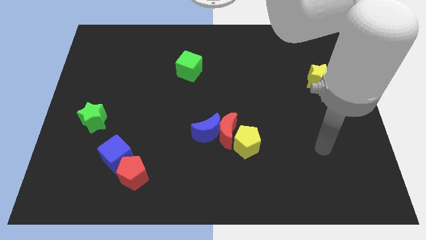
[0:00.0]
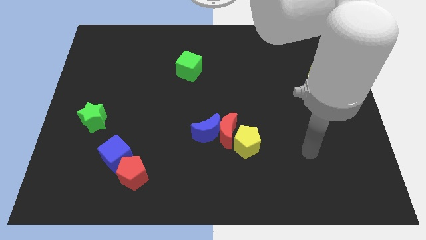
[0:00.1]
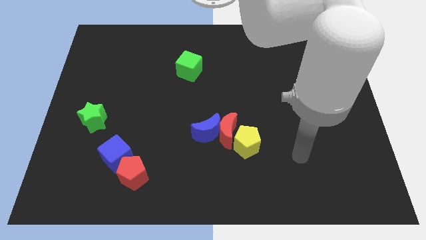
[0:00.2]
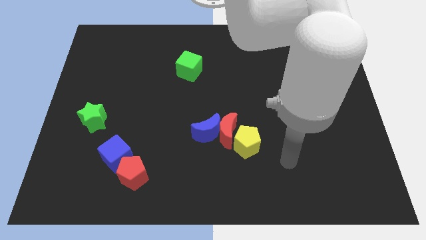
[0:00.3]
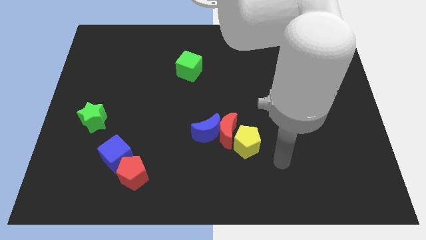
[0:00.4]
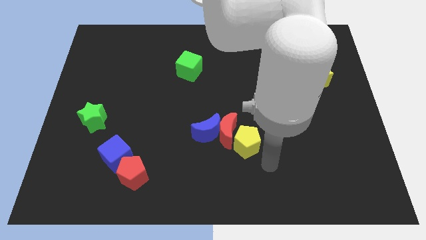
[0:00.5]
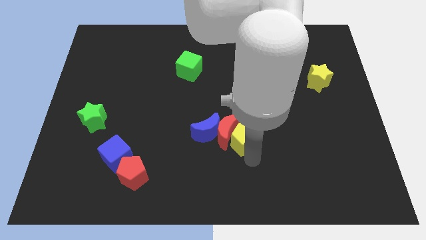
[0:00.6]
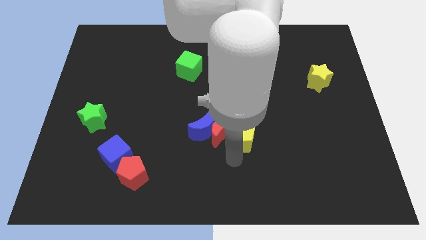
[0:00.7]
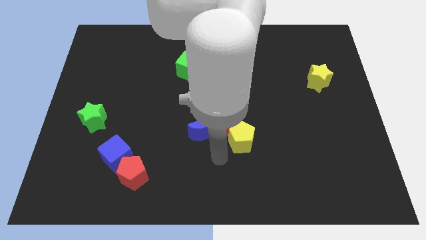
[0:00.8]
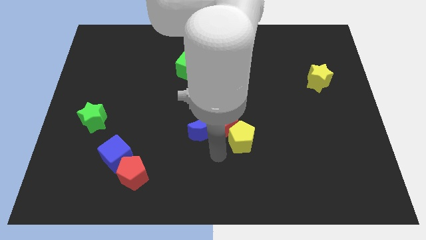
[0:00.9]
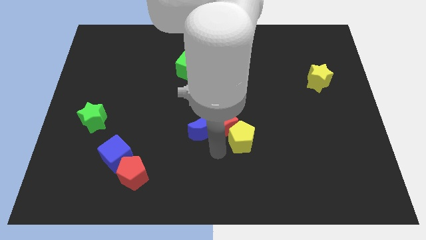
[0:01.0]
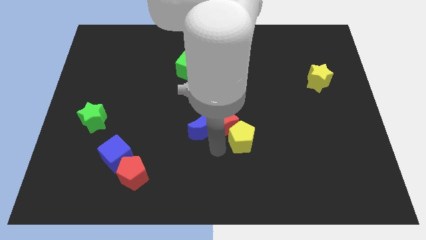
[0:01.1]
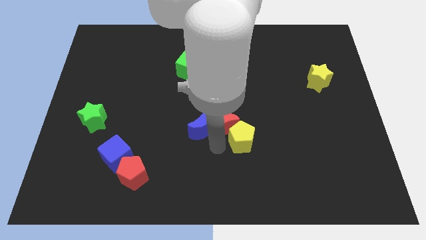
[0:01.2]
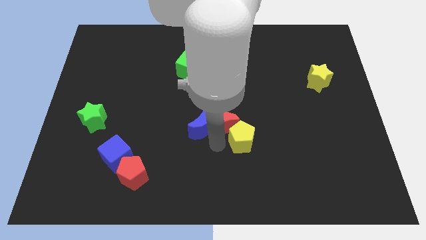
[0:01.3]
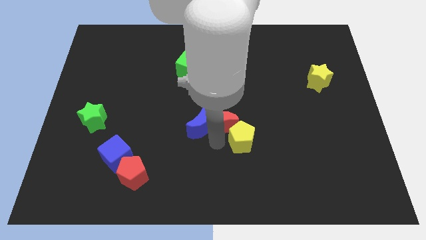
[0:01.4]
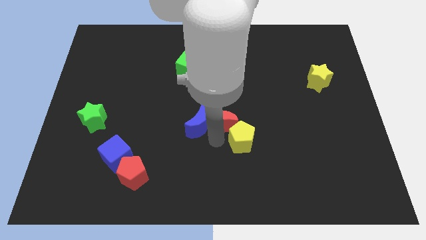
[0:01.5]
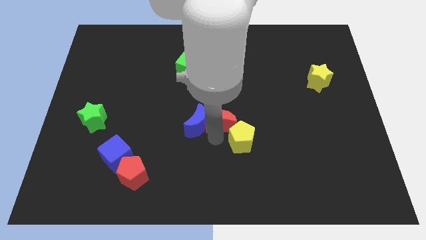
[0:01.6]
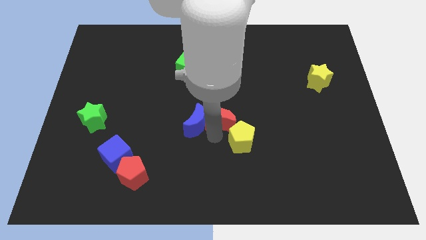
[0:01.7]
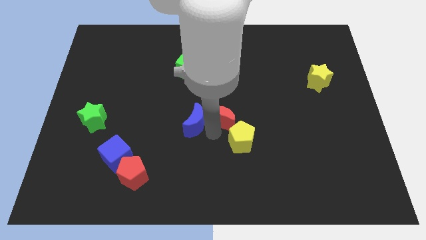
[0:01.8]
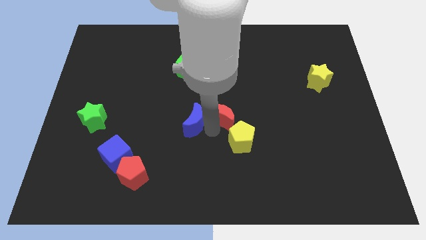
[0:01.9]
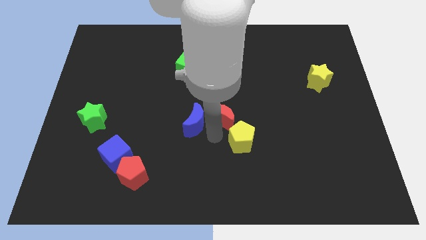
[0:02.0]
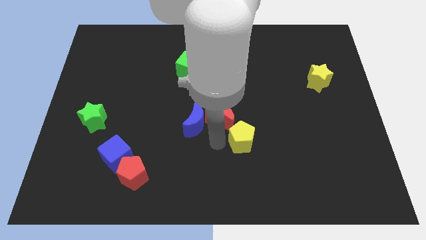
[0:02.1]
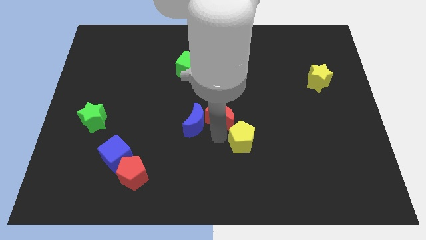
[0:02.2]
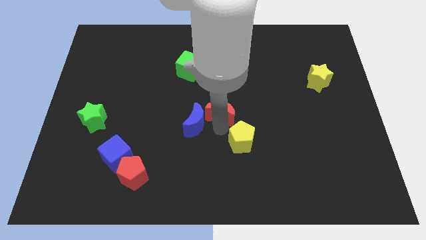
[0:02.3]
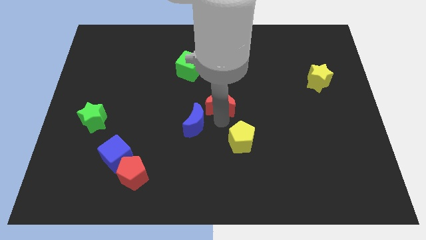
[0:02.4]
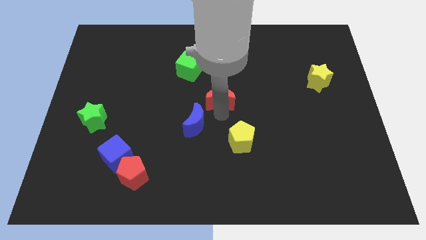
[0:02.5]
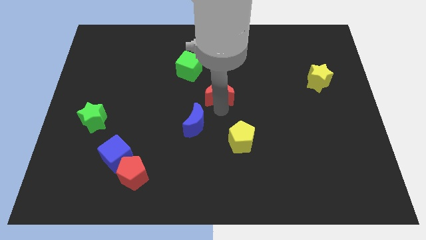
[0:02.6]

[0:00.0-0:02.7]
separate the red moon from the blue moon and yellow pentagon

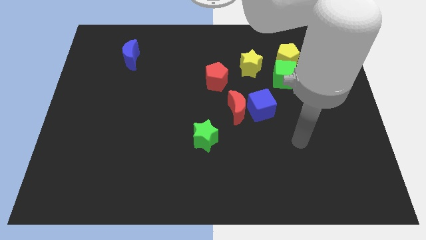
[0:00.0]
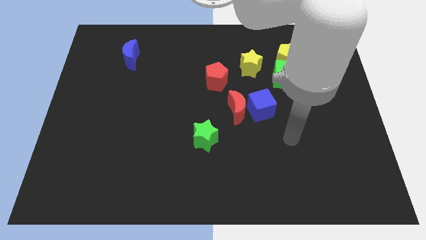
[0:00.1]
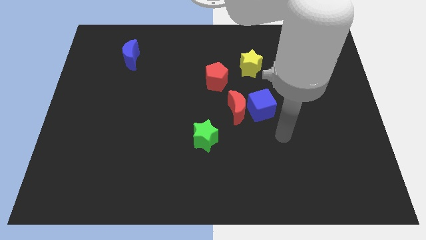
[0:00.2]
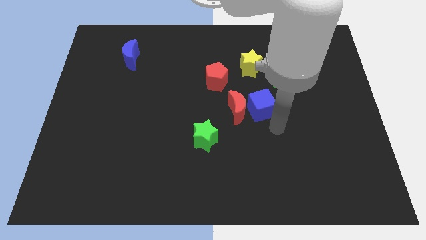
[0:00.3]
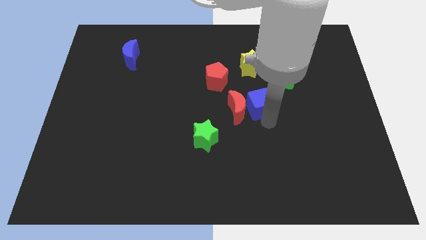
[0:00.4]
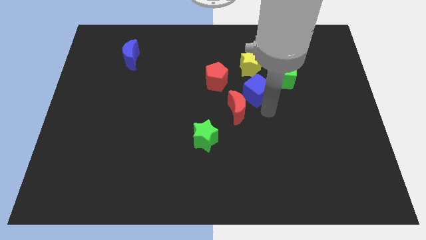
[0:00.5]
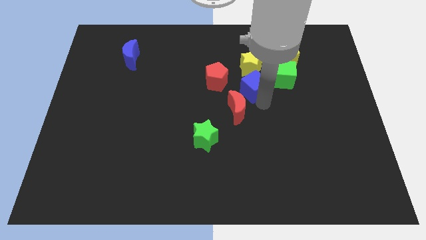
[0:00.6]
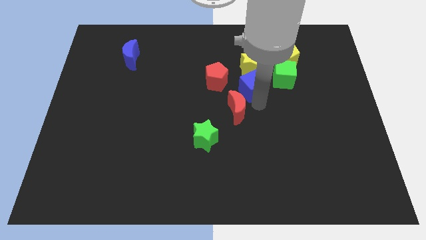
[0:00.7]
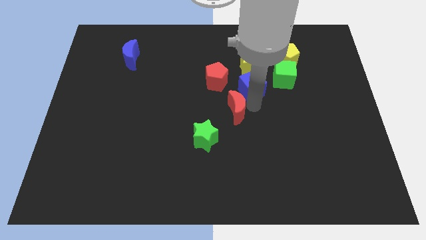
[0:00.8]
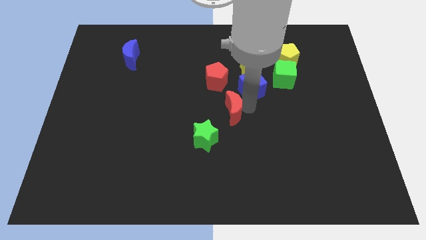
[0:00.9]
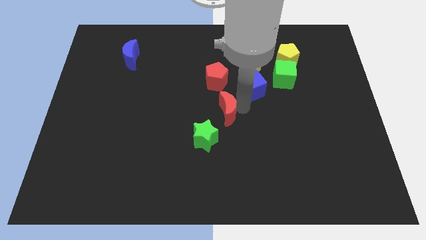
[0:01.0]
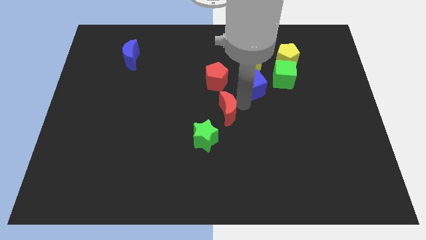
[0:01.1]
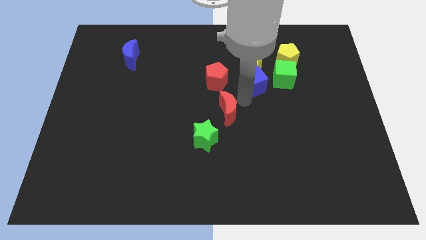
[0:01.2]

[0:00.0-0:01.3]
move the red moon away from the blue cube

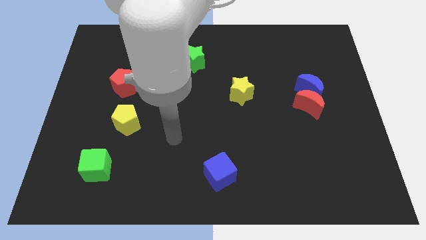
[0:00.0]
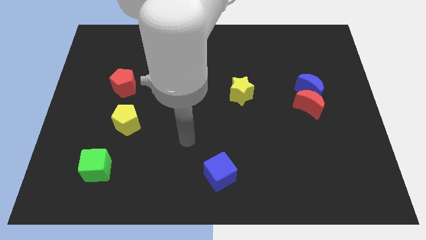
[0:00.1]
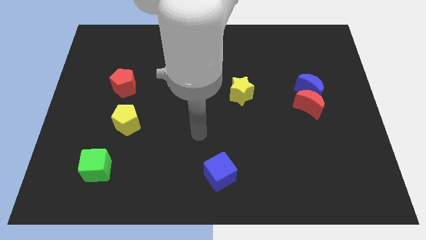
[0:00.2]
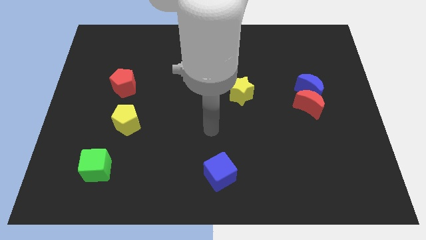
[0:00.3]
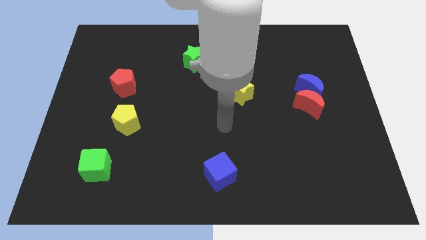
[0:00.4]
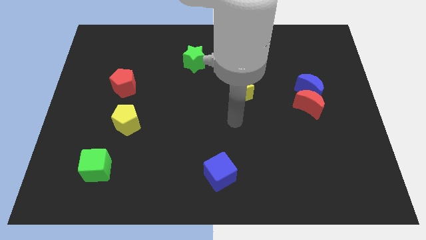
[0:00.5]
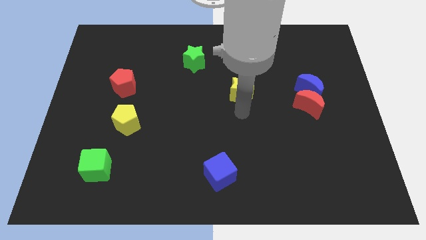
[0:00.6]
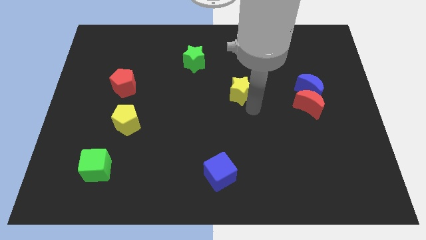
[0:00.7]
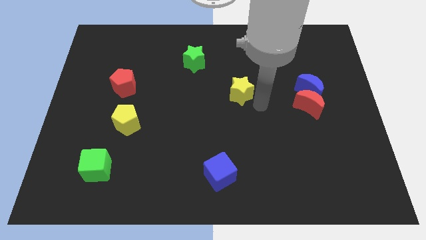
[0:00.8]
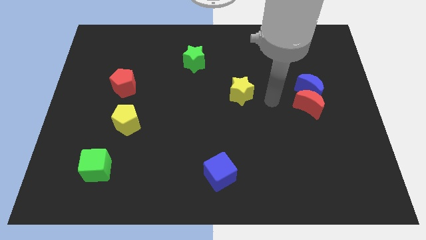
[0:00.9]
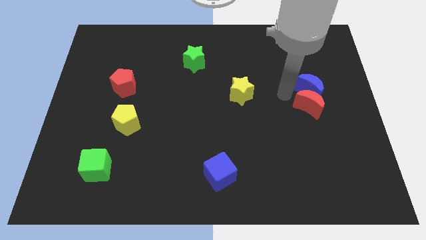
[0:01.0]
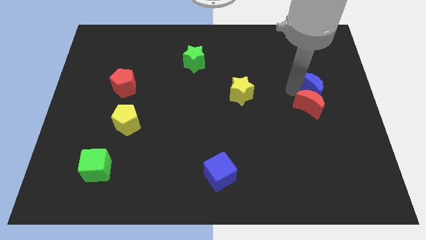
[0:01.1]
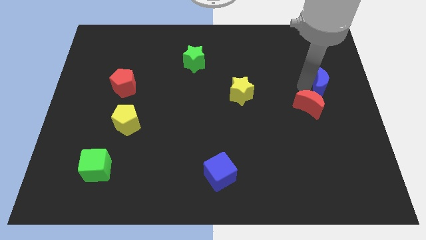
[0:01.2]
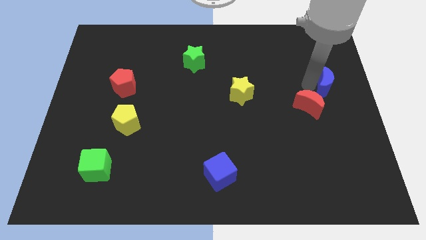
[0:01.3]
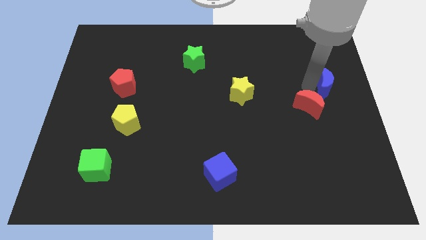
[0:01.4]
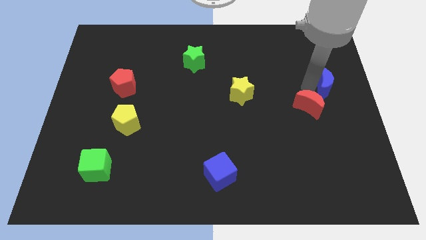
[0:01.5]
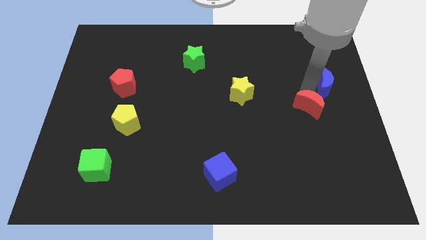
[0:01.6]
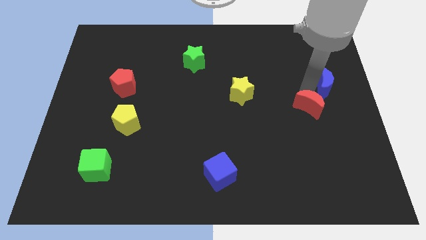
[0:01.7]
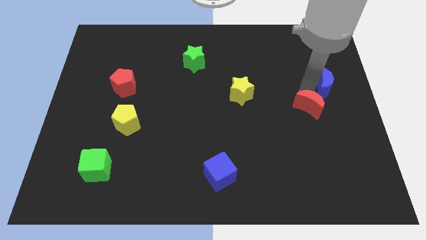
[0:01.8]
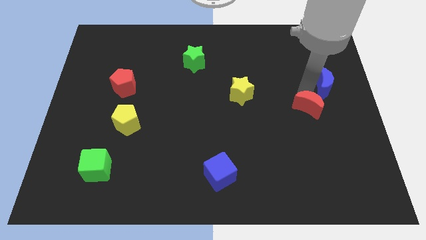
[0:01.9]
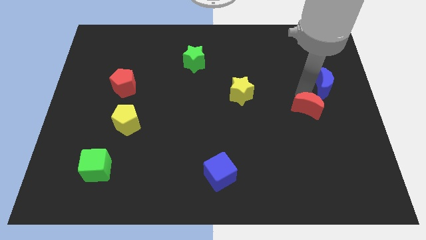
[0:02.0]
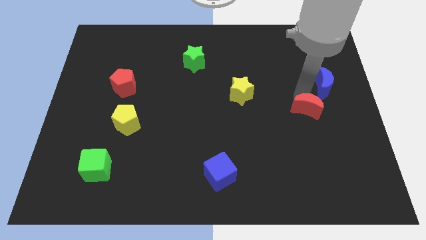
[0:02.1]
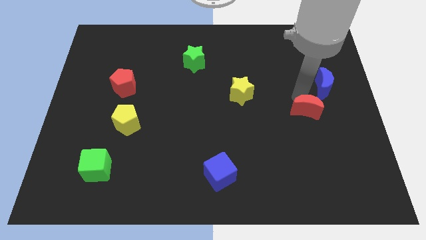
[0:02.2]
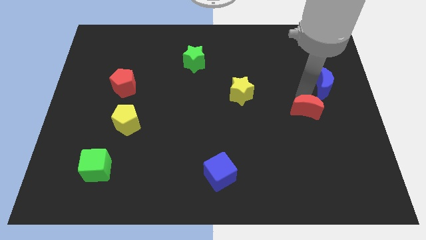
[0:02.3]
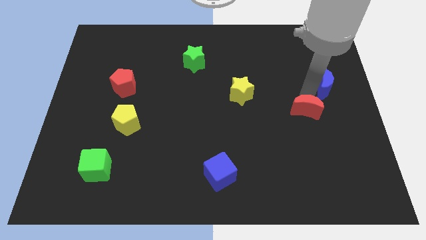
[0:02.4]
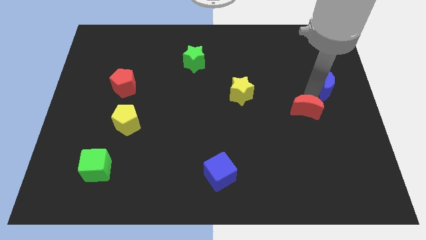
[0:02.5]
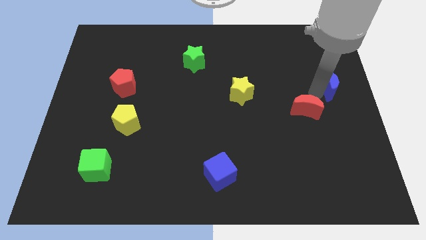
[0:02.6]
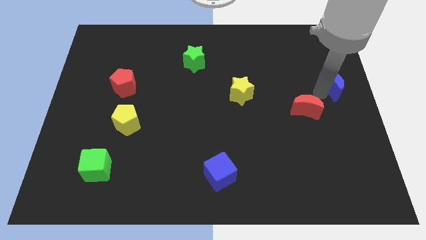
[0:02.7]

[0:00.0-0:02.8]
move the red moon away from the blue moon

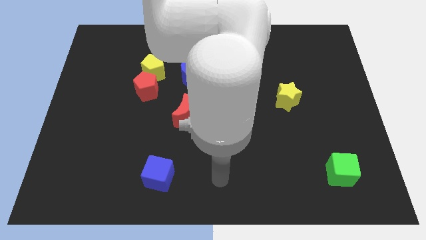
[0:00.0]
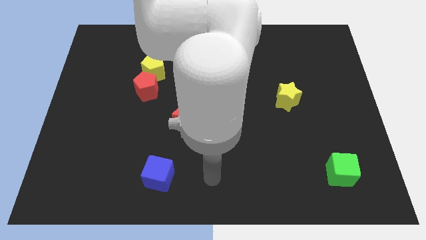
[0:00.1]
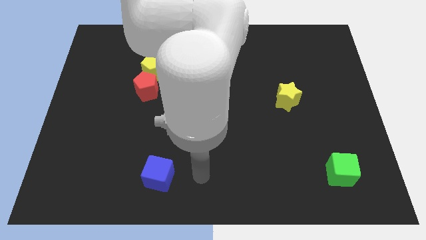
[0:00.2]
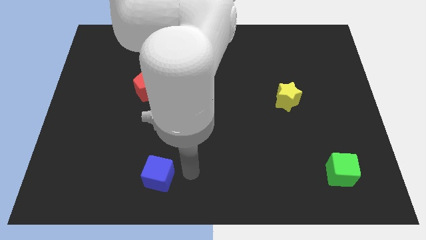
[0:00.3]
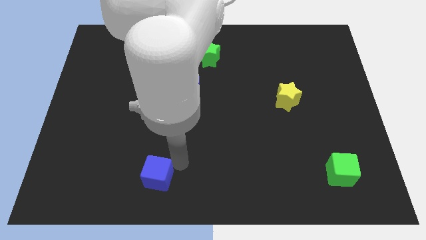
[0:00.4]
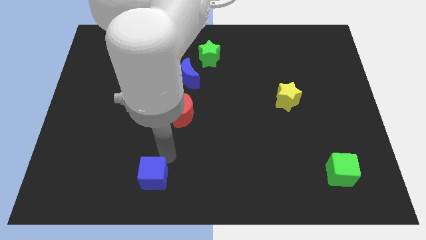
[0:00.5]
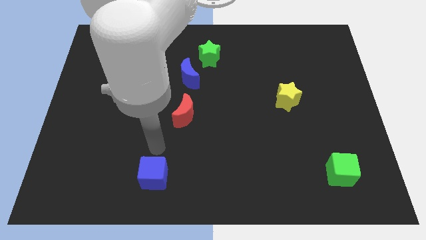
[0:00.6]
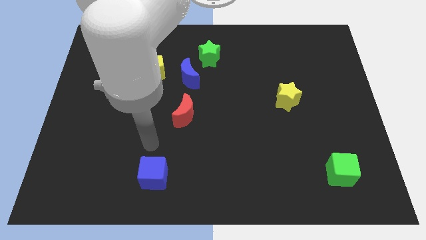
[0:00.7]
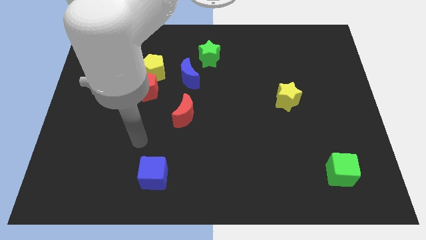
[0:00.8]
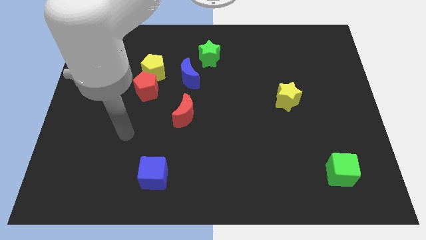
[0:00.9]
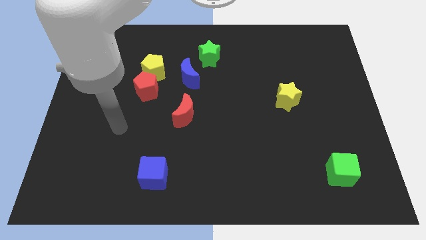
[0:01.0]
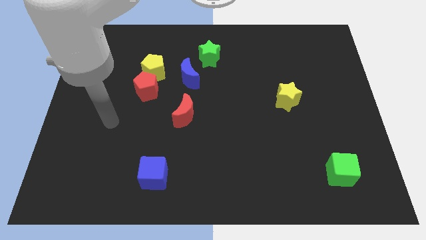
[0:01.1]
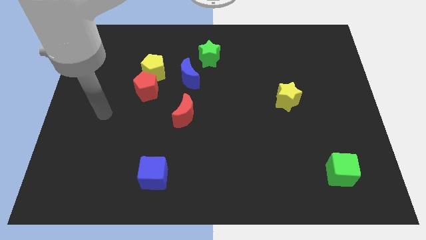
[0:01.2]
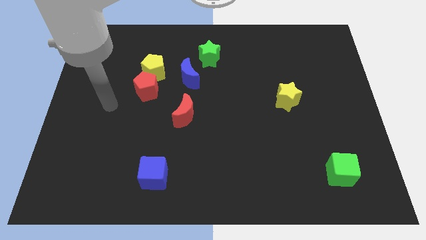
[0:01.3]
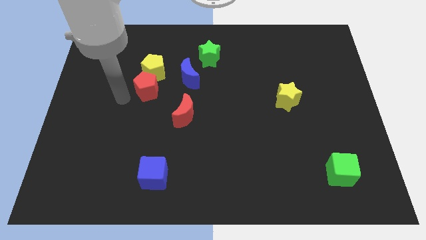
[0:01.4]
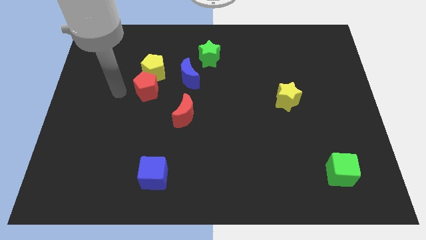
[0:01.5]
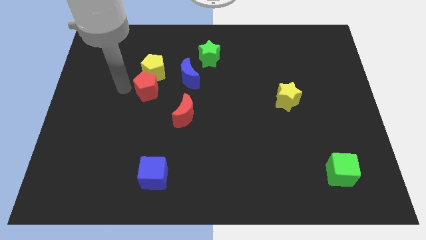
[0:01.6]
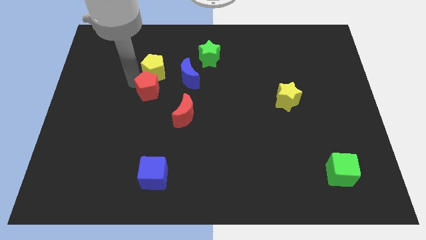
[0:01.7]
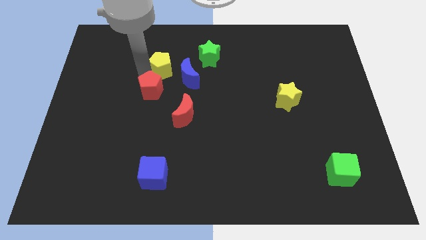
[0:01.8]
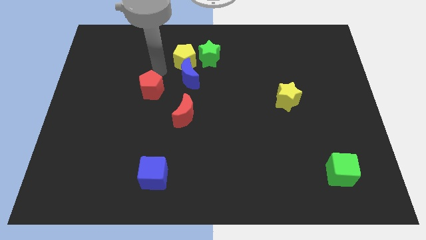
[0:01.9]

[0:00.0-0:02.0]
separate the red pentagon from the yellow pentagon

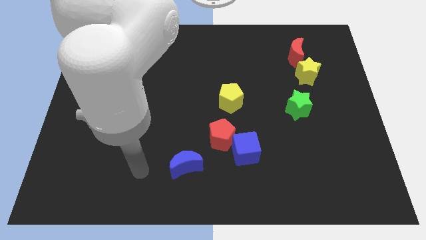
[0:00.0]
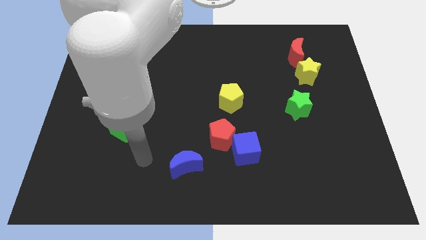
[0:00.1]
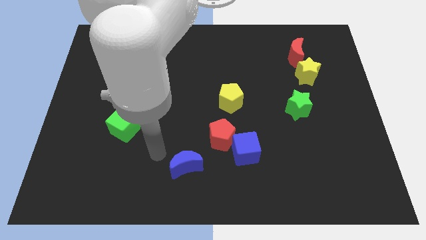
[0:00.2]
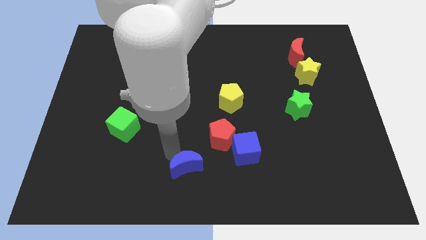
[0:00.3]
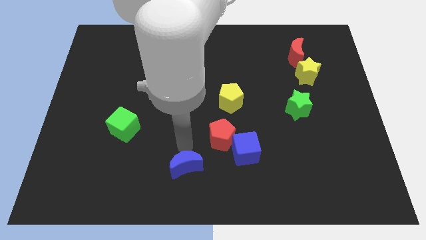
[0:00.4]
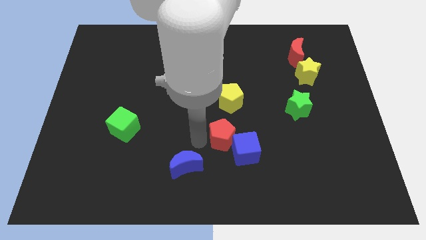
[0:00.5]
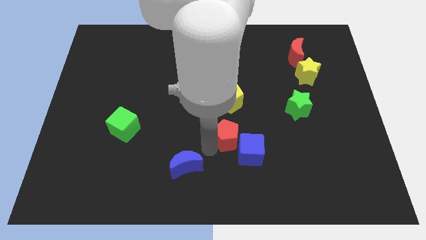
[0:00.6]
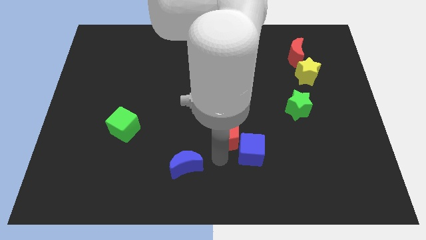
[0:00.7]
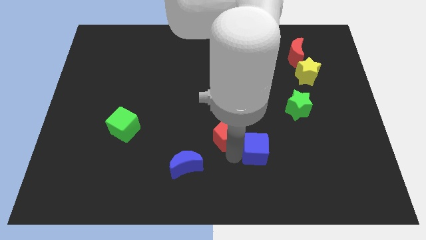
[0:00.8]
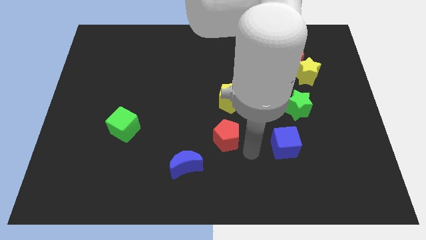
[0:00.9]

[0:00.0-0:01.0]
separate the red pentagon from the blue cube
